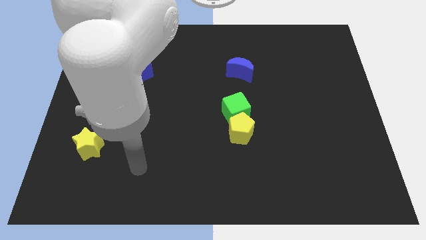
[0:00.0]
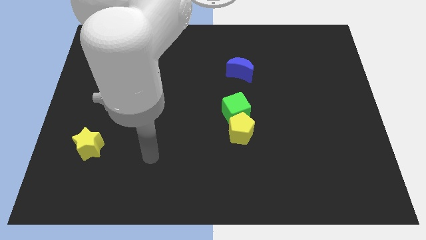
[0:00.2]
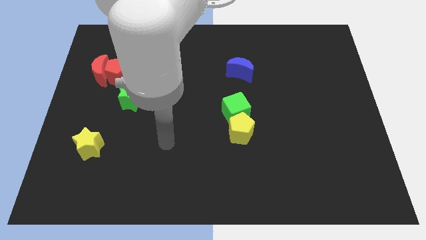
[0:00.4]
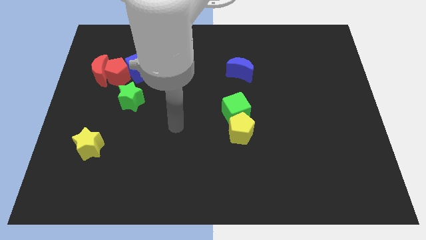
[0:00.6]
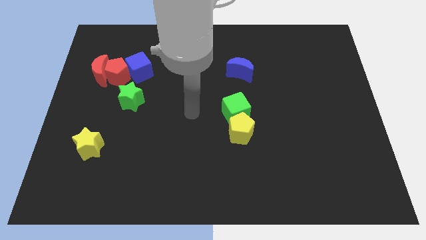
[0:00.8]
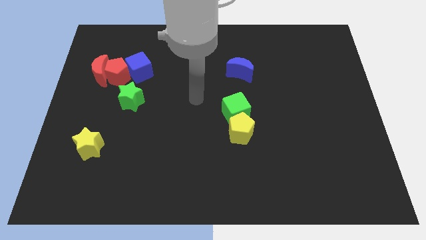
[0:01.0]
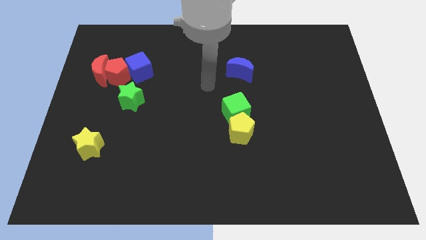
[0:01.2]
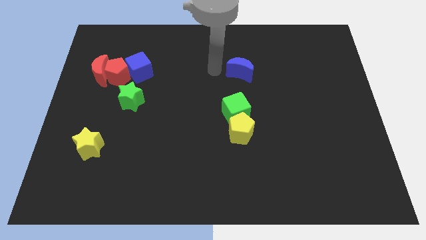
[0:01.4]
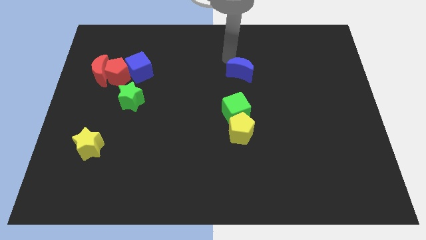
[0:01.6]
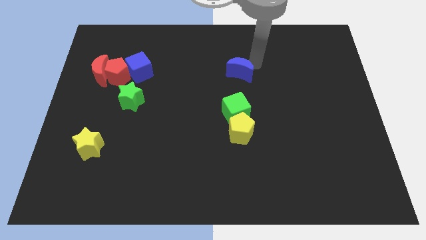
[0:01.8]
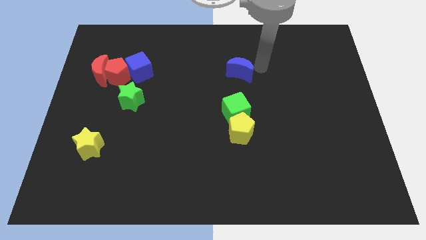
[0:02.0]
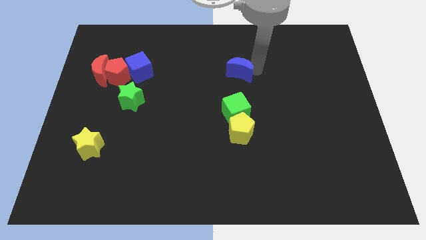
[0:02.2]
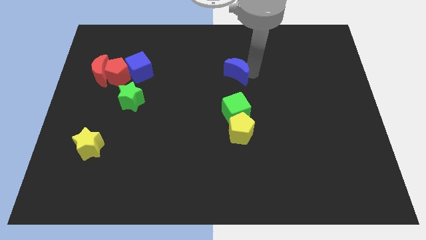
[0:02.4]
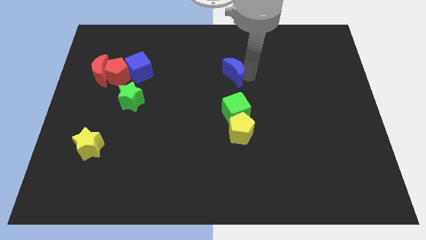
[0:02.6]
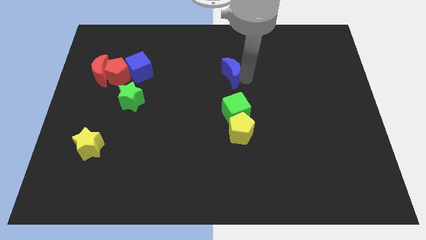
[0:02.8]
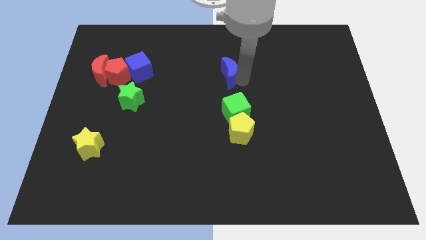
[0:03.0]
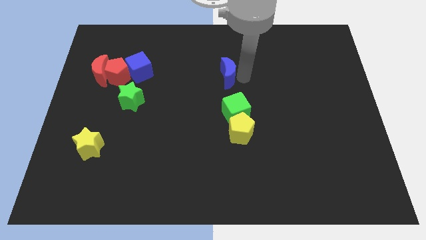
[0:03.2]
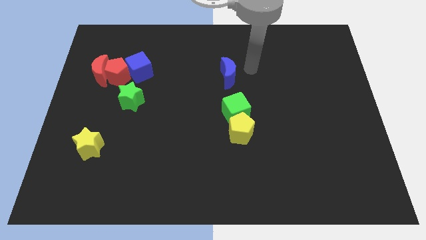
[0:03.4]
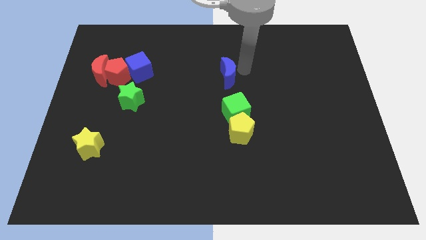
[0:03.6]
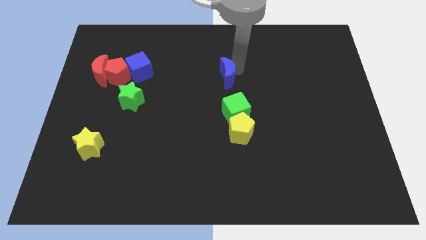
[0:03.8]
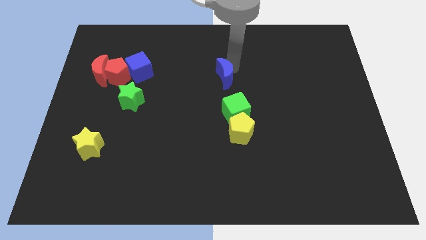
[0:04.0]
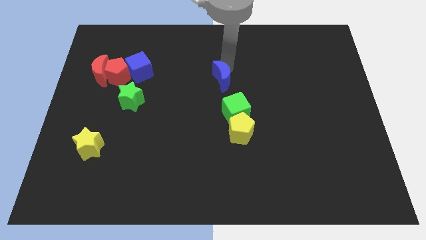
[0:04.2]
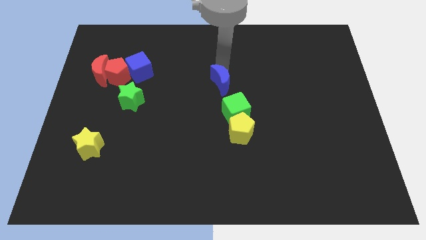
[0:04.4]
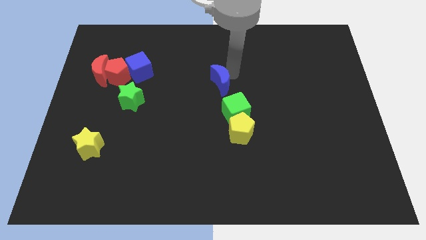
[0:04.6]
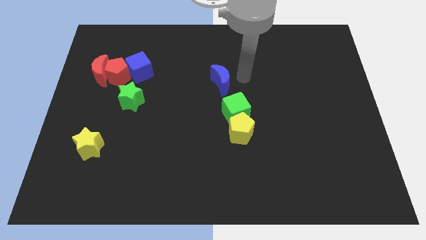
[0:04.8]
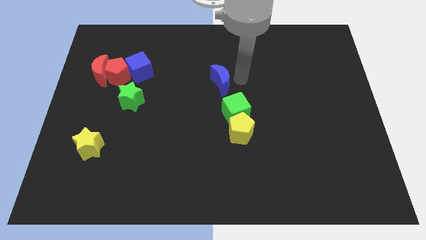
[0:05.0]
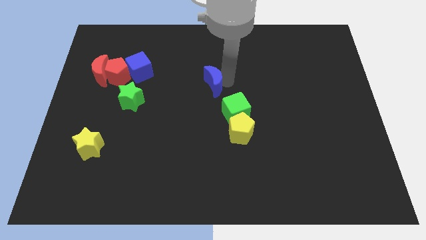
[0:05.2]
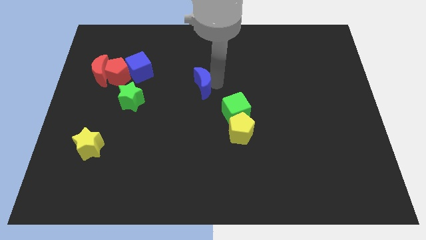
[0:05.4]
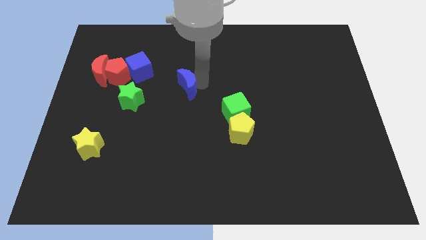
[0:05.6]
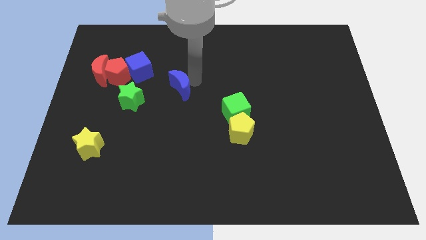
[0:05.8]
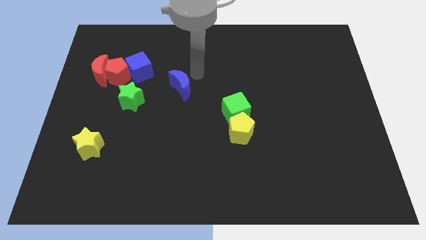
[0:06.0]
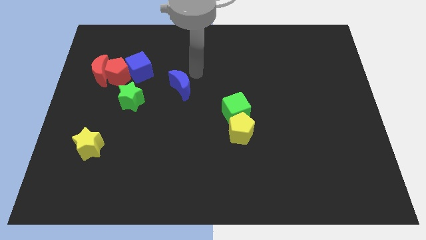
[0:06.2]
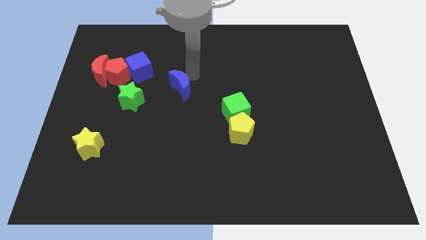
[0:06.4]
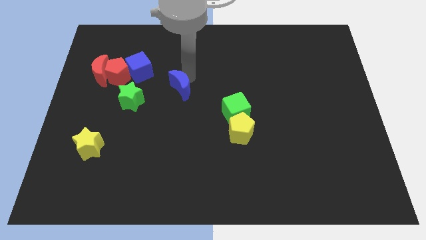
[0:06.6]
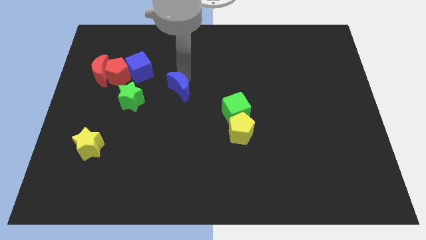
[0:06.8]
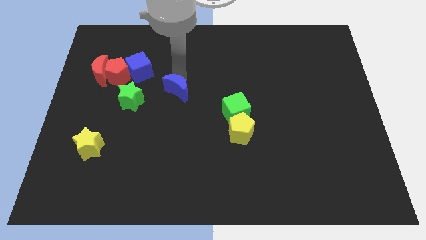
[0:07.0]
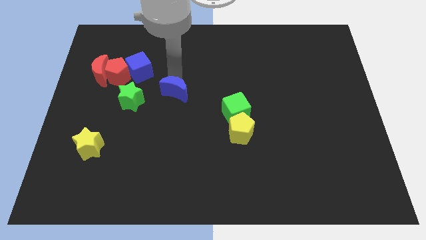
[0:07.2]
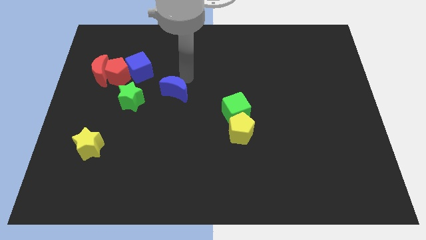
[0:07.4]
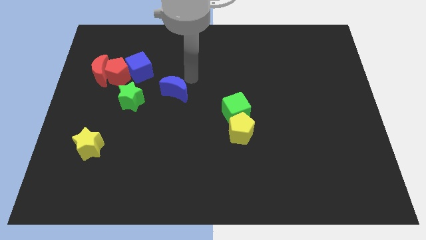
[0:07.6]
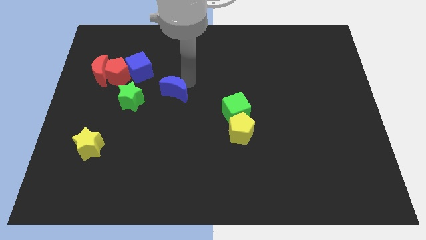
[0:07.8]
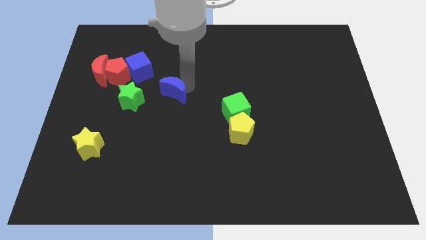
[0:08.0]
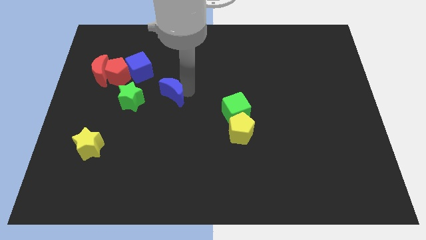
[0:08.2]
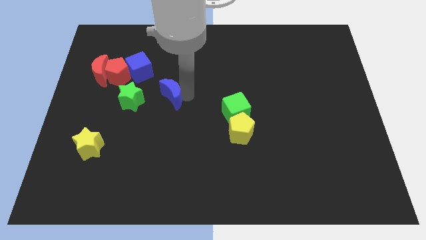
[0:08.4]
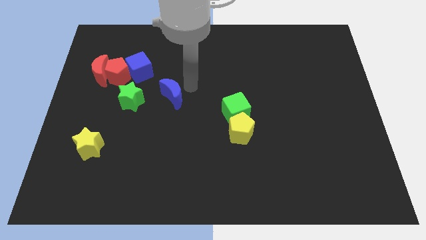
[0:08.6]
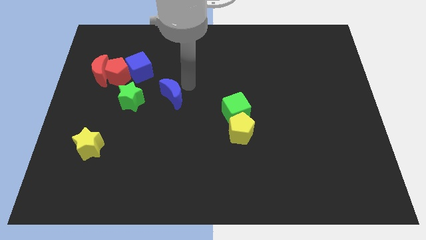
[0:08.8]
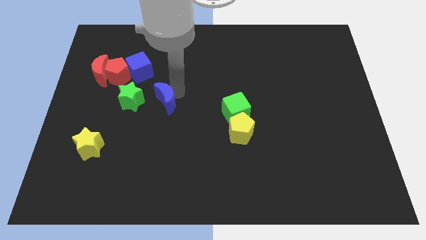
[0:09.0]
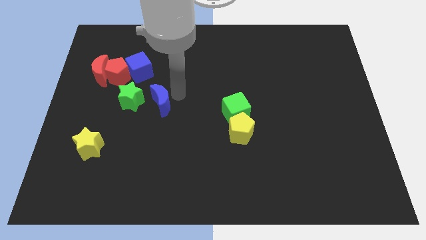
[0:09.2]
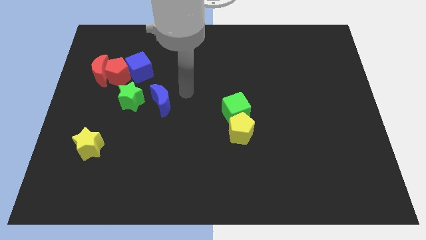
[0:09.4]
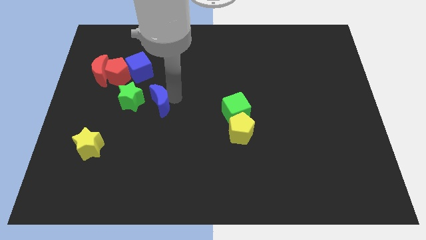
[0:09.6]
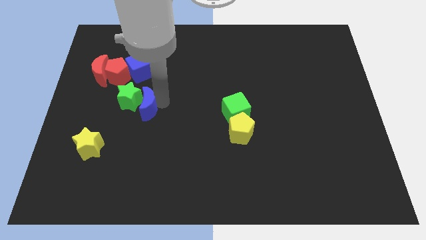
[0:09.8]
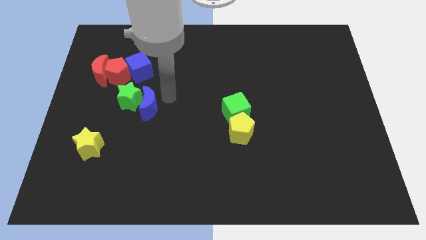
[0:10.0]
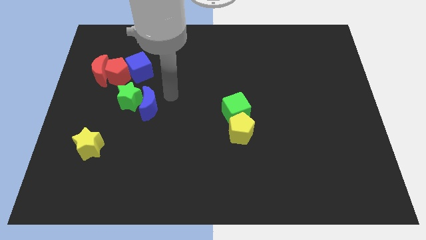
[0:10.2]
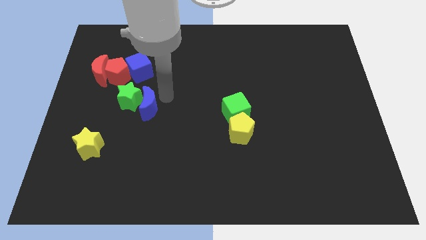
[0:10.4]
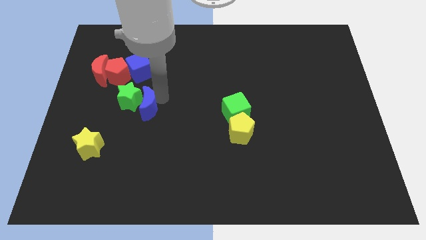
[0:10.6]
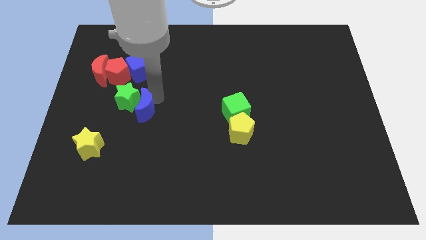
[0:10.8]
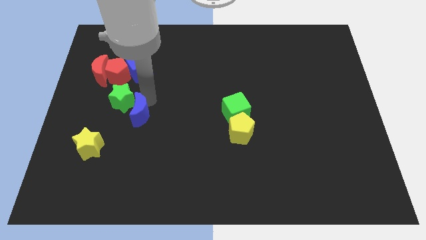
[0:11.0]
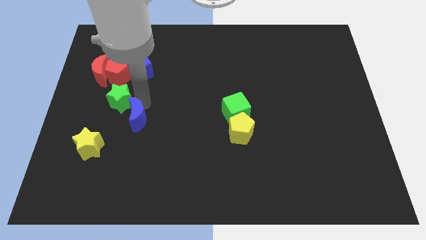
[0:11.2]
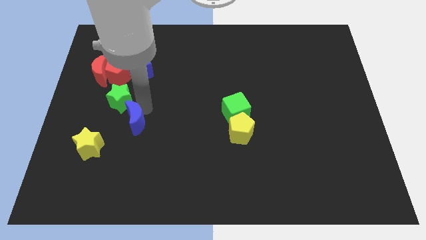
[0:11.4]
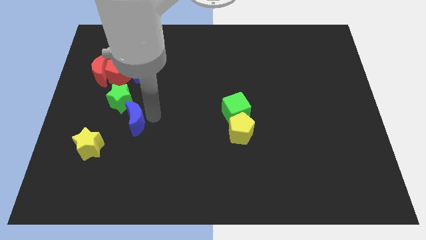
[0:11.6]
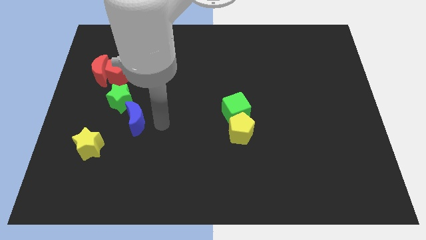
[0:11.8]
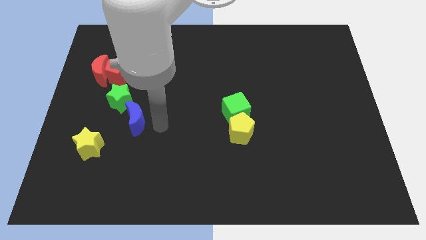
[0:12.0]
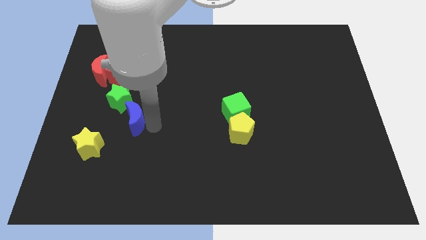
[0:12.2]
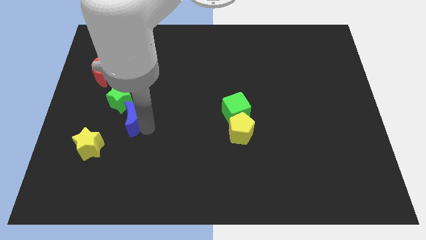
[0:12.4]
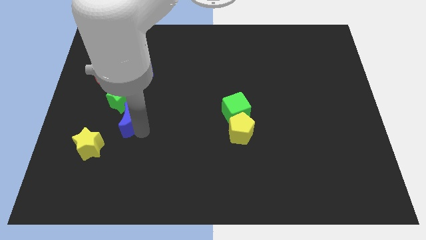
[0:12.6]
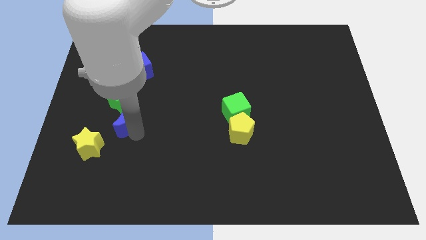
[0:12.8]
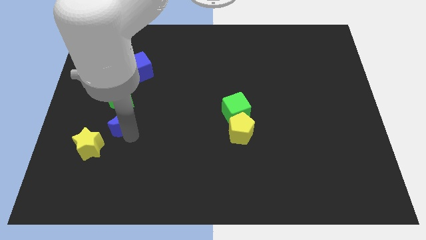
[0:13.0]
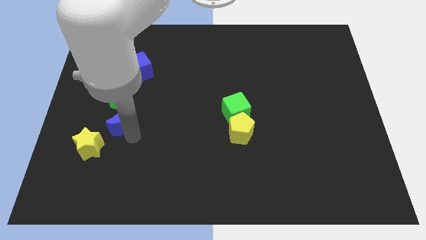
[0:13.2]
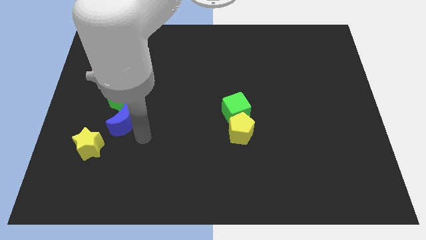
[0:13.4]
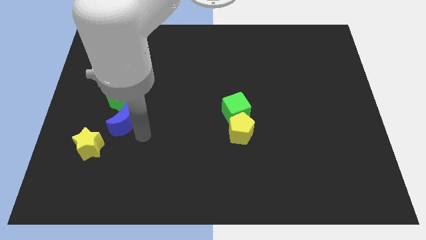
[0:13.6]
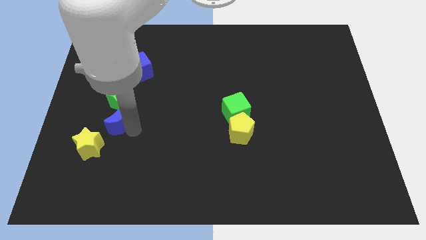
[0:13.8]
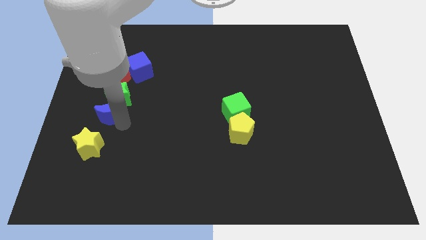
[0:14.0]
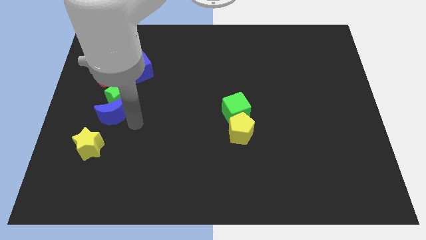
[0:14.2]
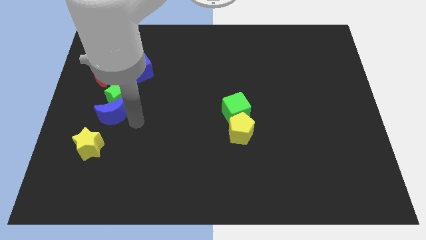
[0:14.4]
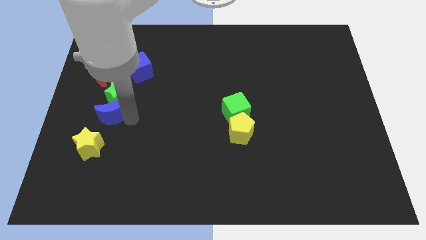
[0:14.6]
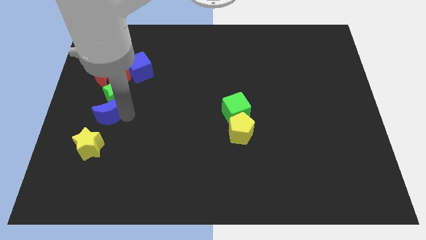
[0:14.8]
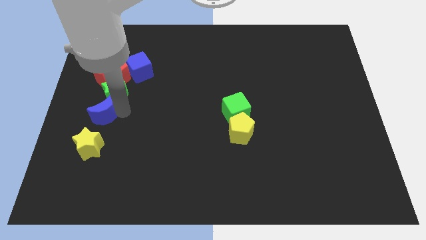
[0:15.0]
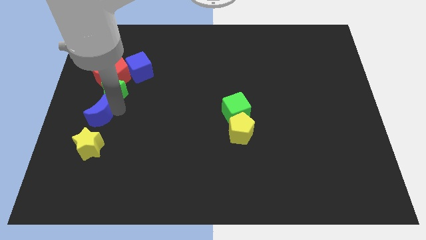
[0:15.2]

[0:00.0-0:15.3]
push the blue moon to the left side

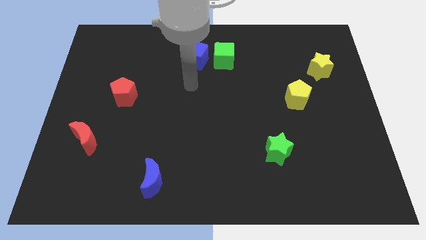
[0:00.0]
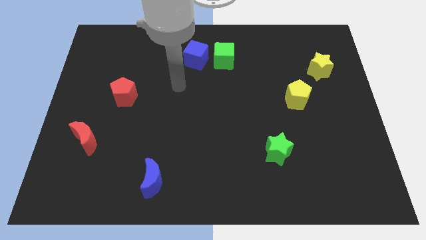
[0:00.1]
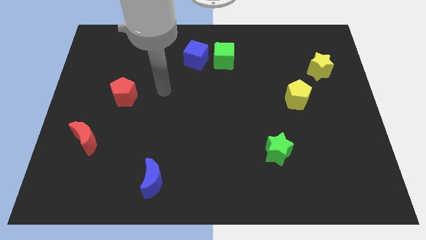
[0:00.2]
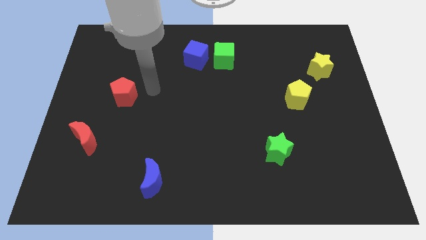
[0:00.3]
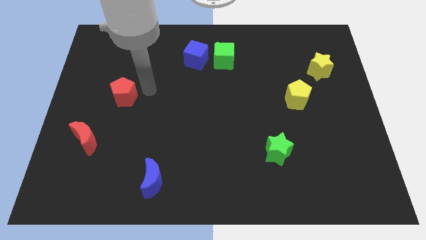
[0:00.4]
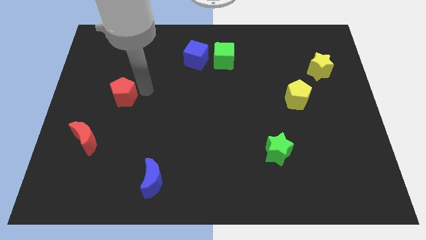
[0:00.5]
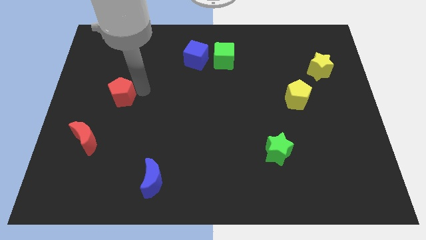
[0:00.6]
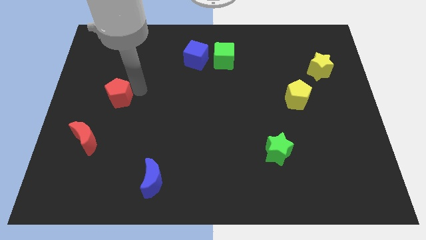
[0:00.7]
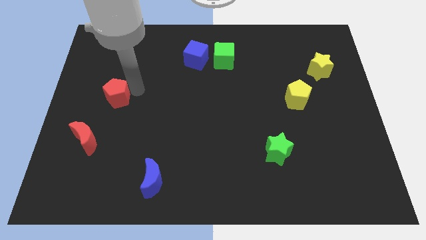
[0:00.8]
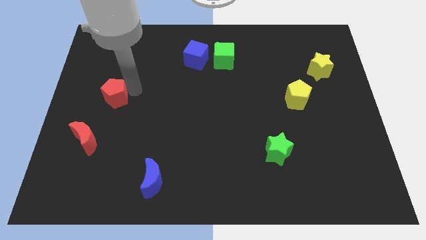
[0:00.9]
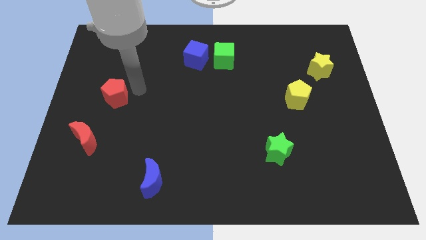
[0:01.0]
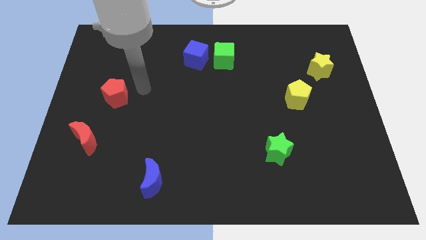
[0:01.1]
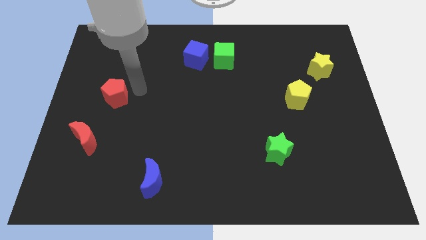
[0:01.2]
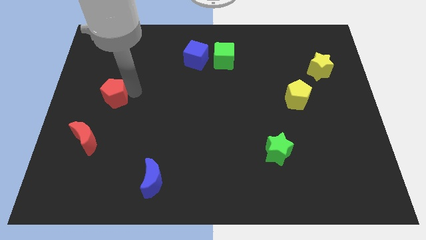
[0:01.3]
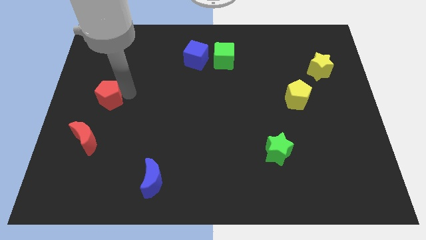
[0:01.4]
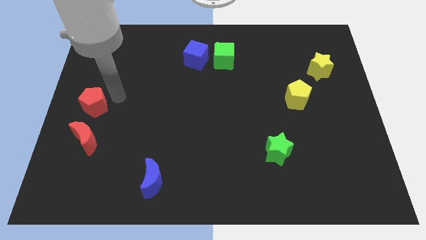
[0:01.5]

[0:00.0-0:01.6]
push the red pentagon to the center left
